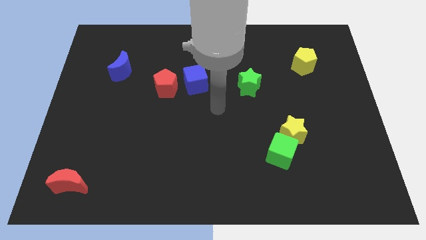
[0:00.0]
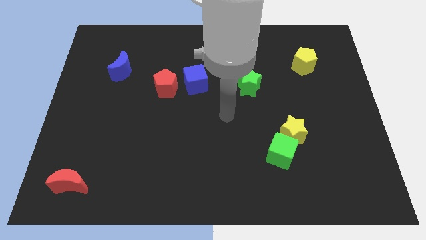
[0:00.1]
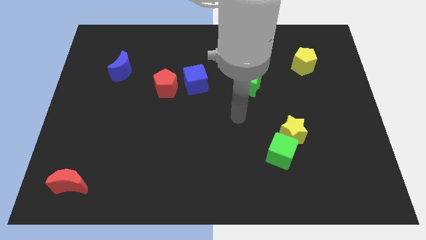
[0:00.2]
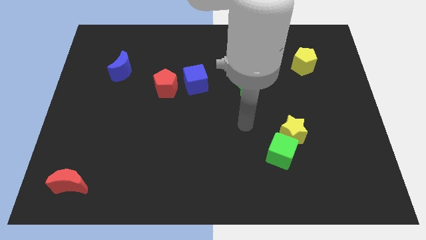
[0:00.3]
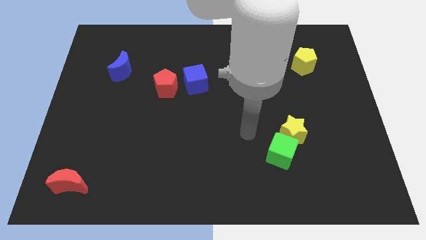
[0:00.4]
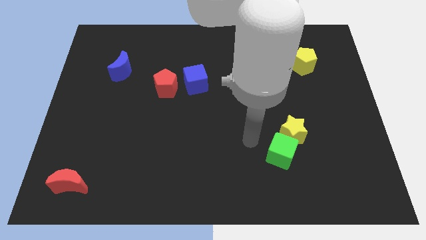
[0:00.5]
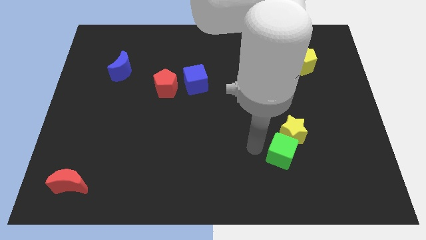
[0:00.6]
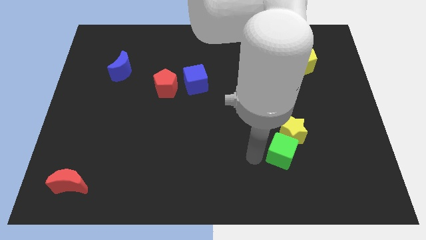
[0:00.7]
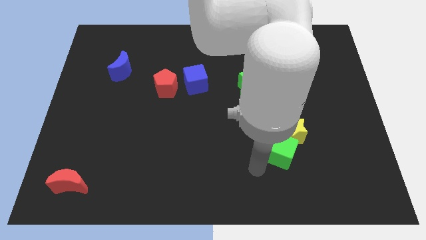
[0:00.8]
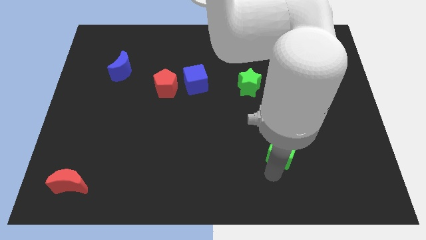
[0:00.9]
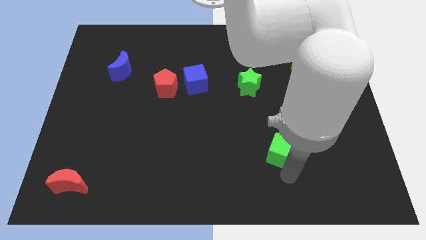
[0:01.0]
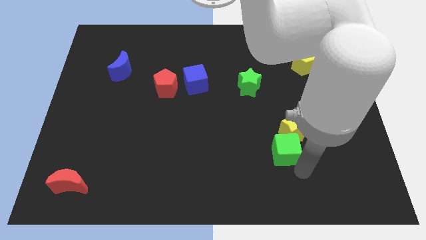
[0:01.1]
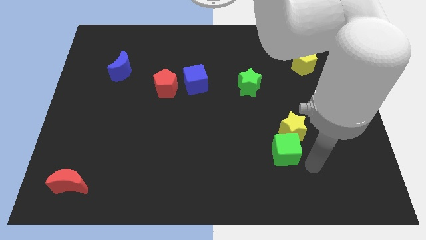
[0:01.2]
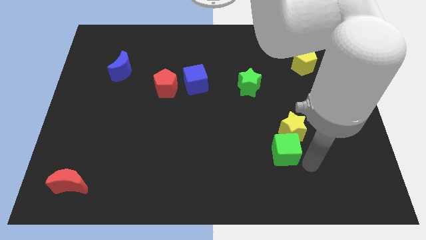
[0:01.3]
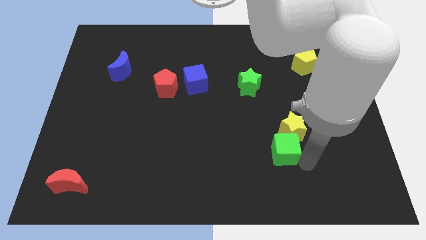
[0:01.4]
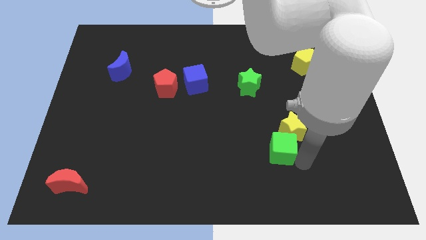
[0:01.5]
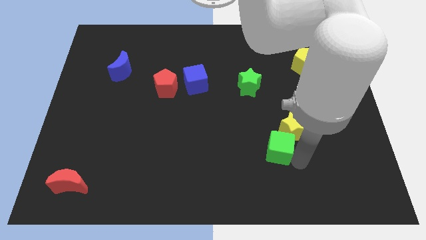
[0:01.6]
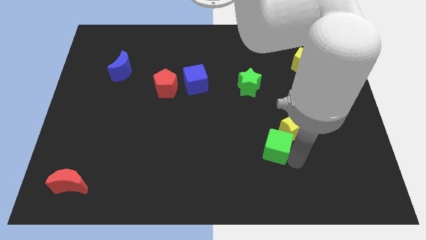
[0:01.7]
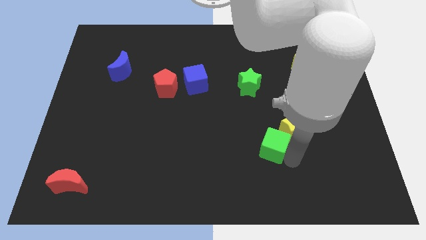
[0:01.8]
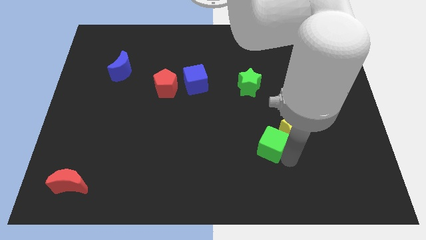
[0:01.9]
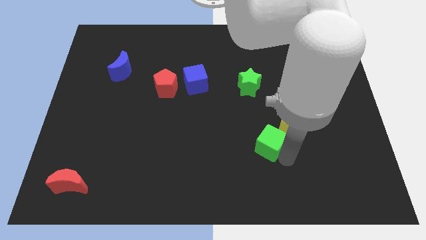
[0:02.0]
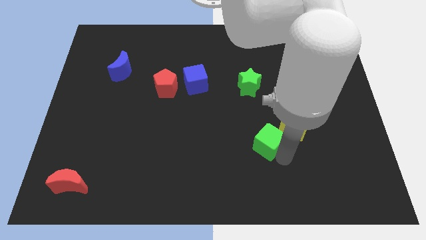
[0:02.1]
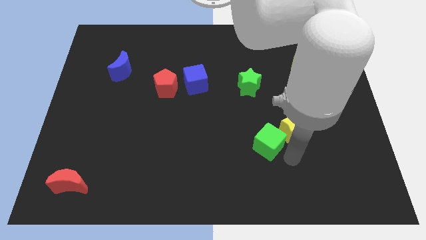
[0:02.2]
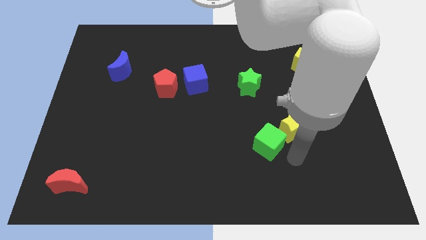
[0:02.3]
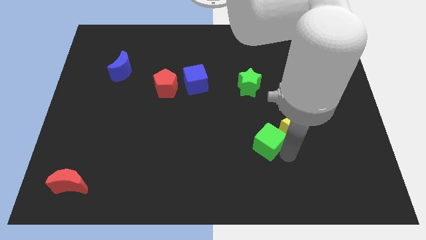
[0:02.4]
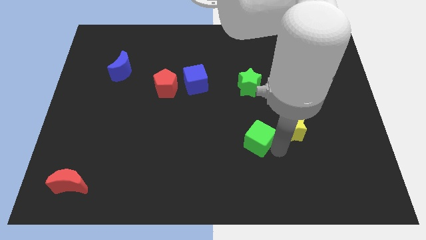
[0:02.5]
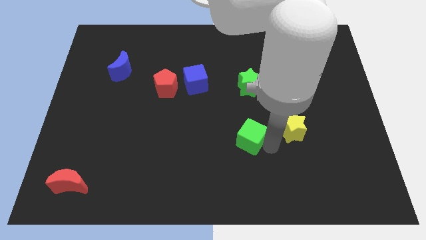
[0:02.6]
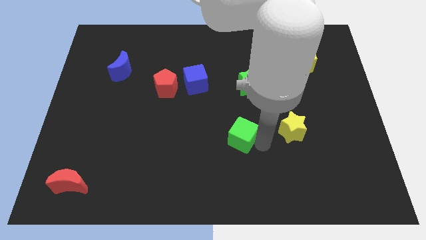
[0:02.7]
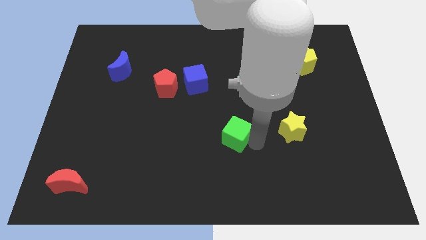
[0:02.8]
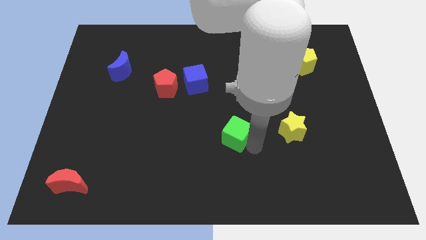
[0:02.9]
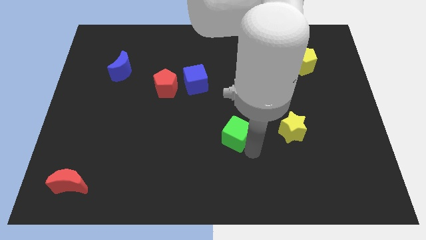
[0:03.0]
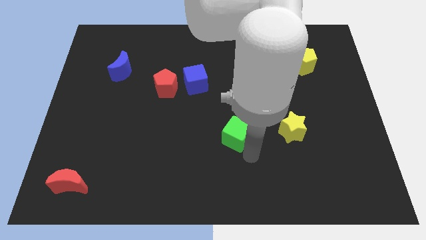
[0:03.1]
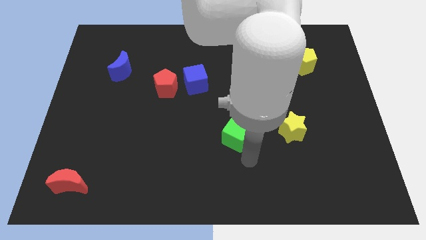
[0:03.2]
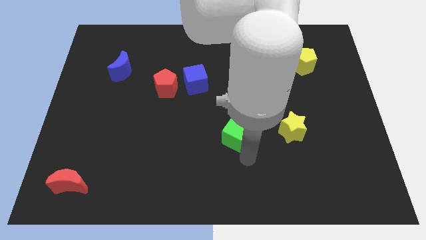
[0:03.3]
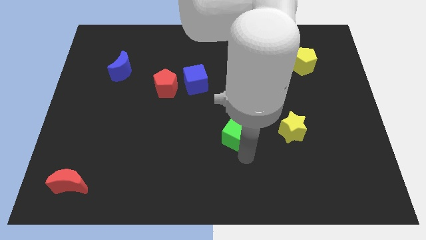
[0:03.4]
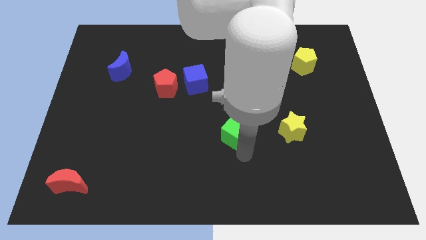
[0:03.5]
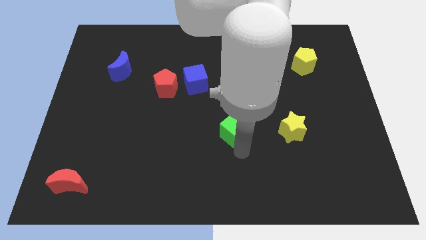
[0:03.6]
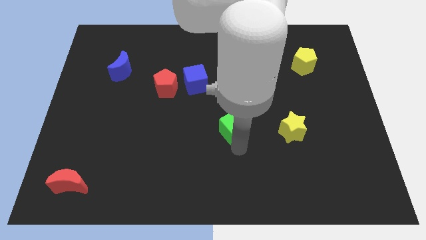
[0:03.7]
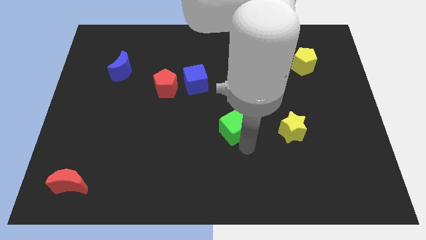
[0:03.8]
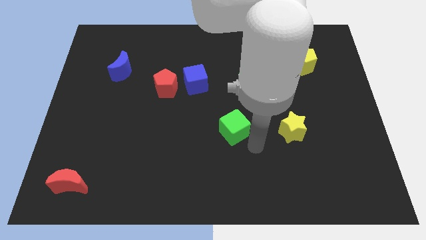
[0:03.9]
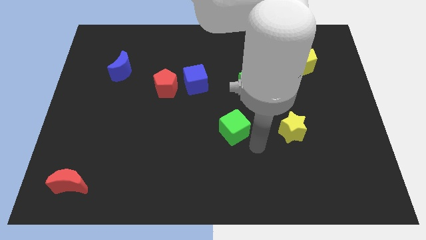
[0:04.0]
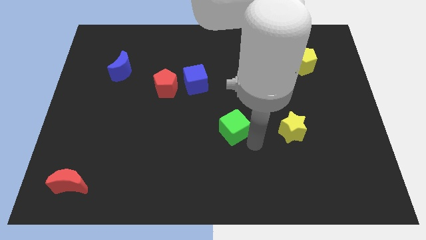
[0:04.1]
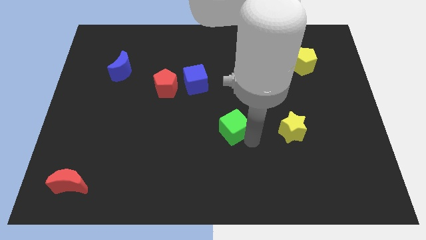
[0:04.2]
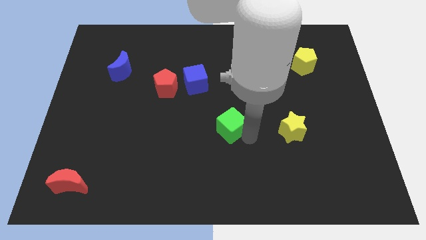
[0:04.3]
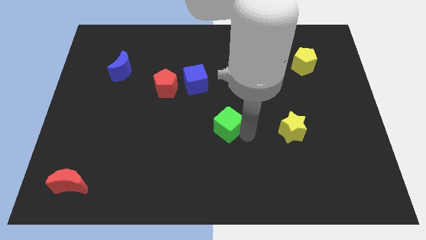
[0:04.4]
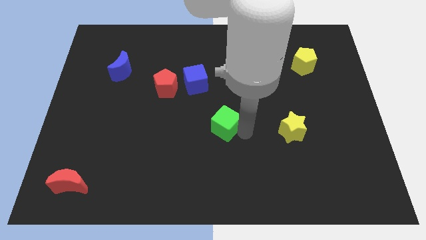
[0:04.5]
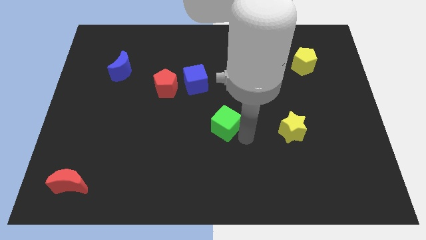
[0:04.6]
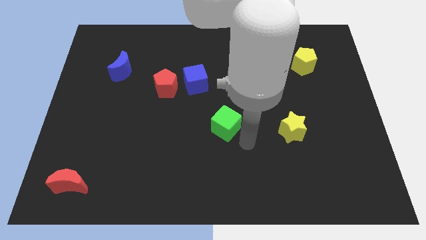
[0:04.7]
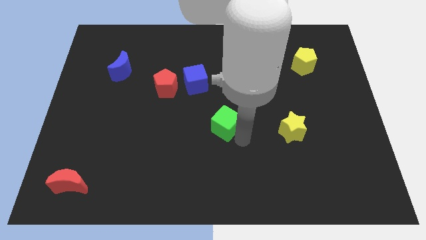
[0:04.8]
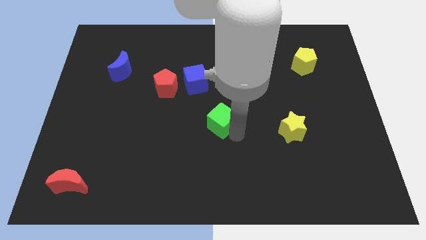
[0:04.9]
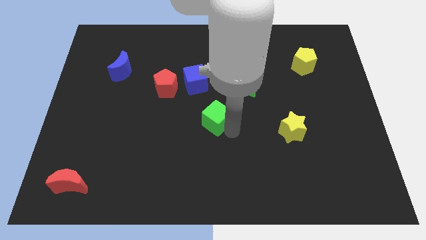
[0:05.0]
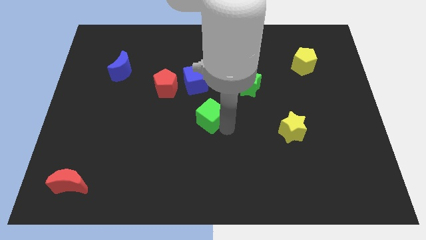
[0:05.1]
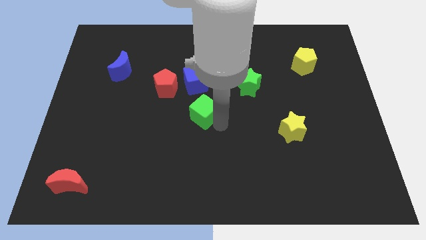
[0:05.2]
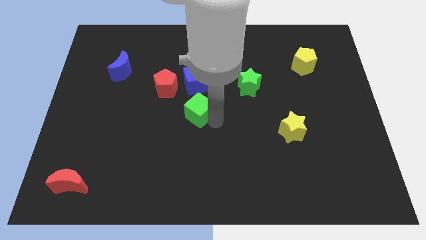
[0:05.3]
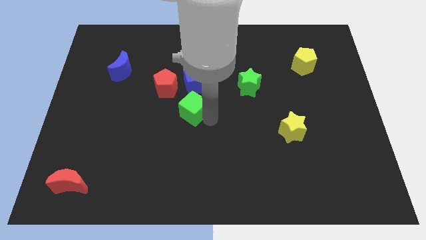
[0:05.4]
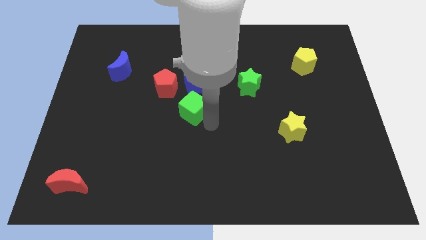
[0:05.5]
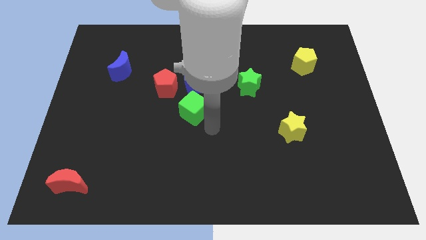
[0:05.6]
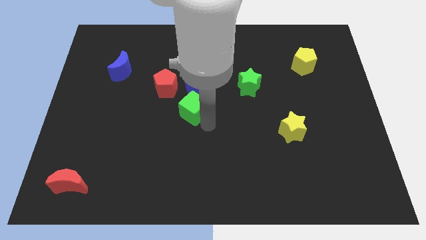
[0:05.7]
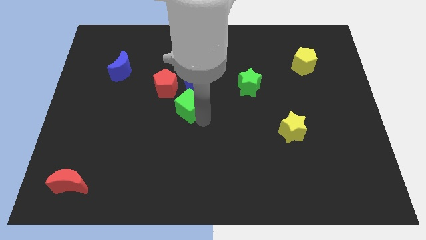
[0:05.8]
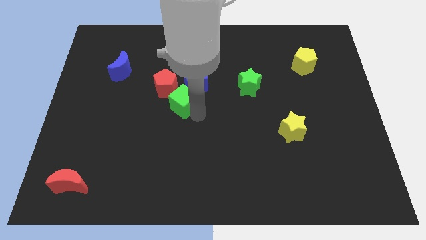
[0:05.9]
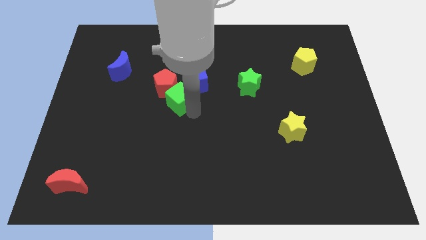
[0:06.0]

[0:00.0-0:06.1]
slide the green cube next to the red pentagon

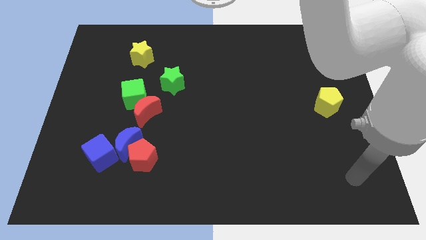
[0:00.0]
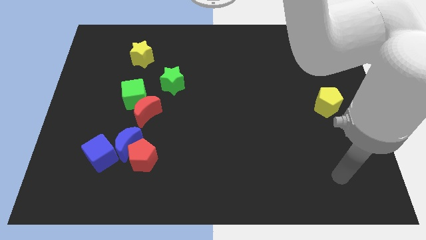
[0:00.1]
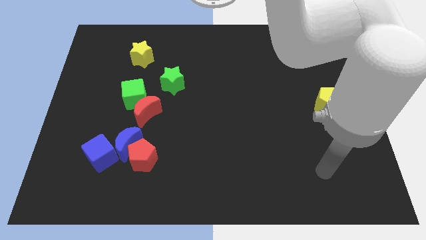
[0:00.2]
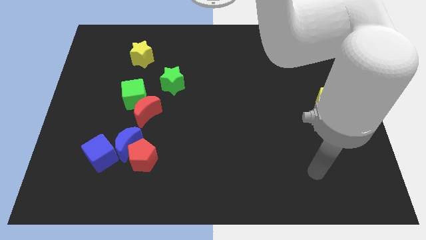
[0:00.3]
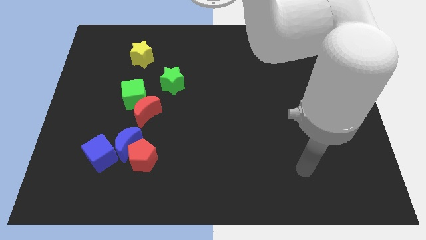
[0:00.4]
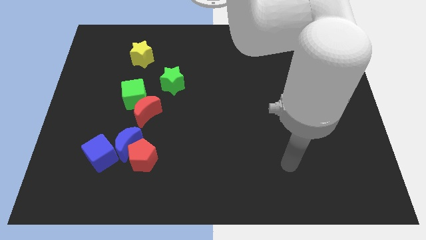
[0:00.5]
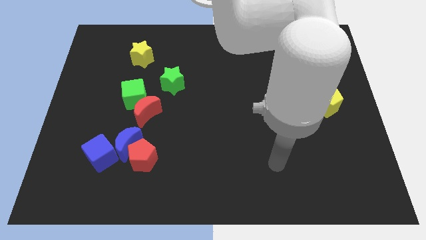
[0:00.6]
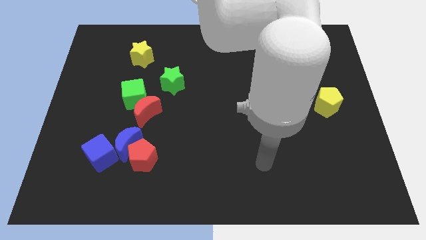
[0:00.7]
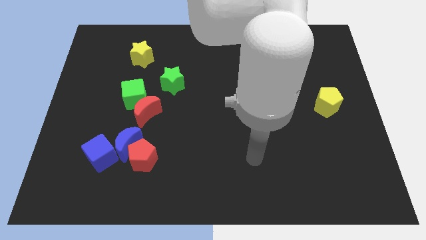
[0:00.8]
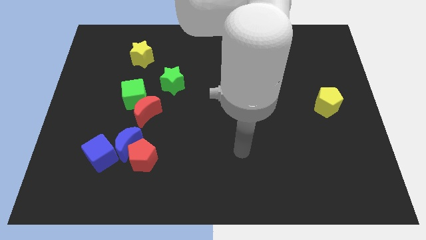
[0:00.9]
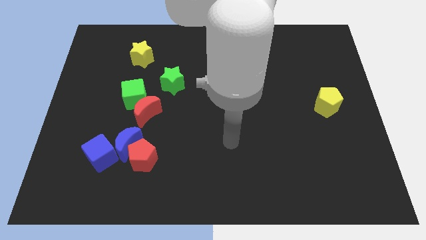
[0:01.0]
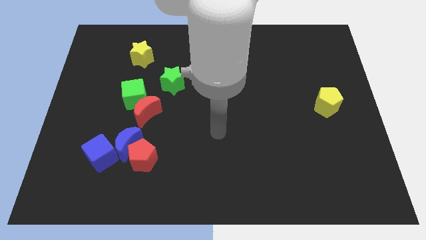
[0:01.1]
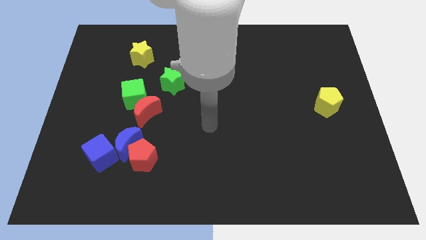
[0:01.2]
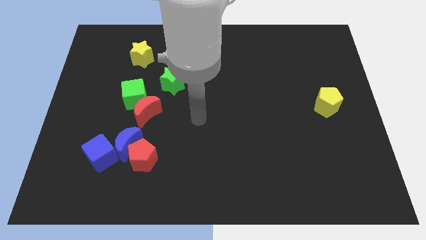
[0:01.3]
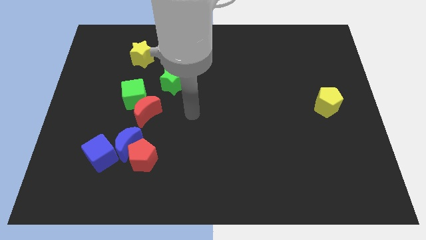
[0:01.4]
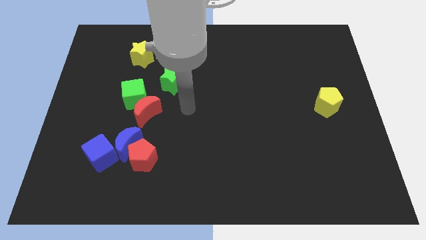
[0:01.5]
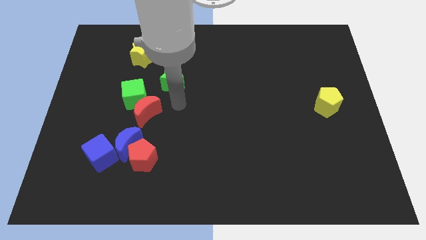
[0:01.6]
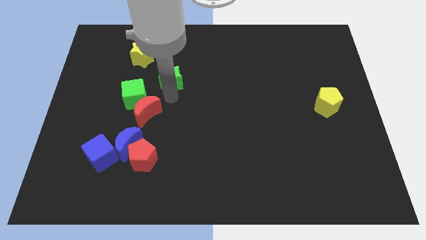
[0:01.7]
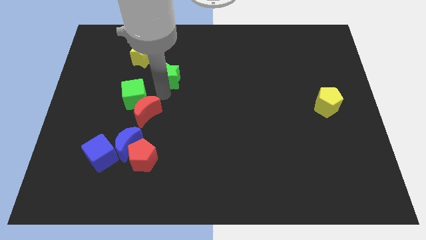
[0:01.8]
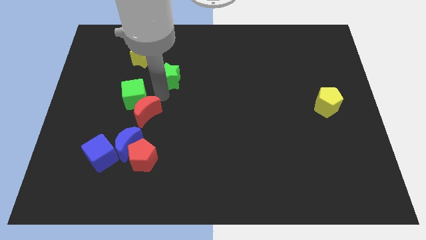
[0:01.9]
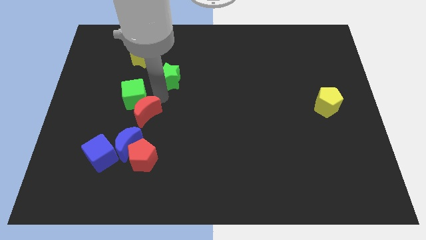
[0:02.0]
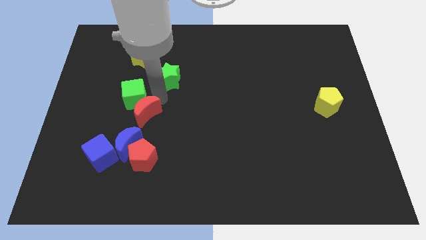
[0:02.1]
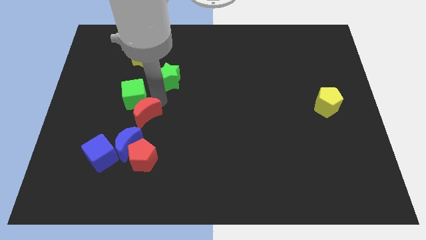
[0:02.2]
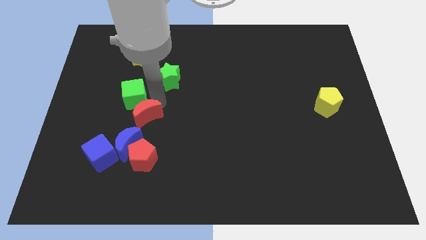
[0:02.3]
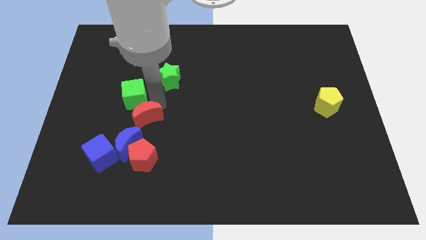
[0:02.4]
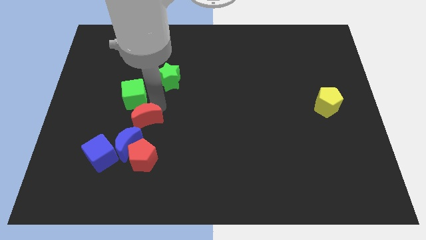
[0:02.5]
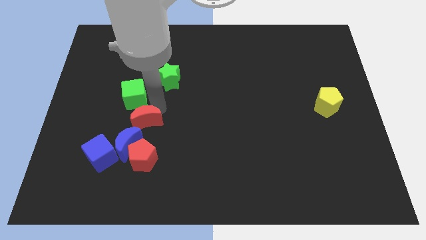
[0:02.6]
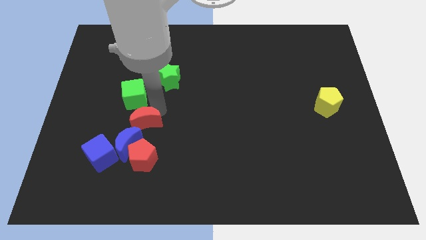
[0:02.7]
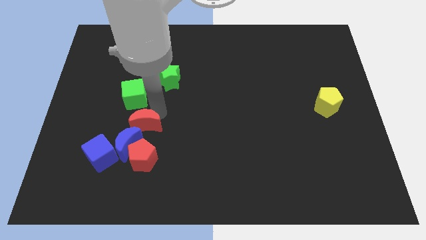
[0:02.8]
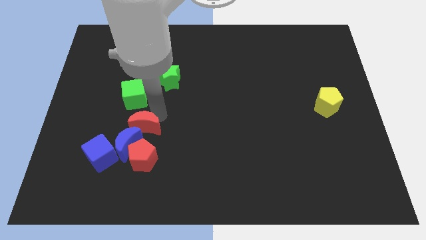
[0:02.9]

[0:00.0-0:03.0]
put the red moon close to the blue moon
